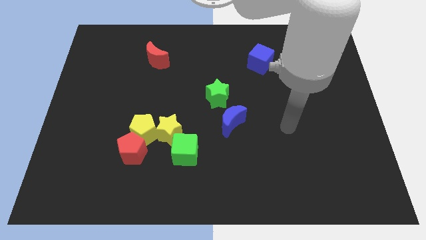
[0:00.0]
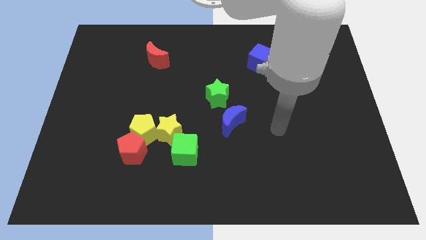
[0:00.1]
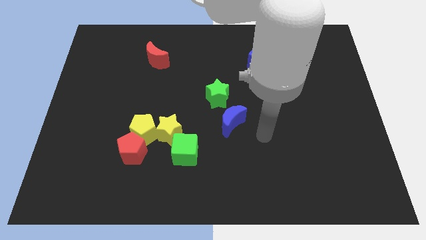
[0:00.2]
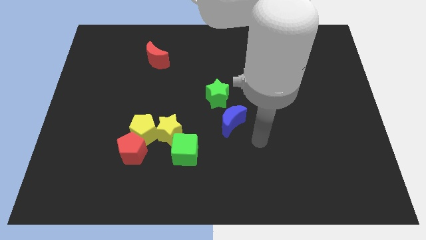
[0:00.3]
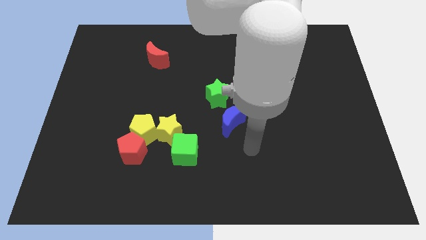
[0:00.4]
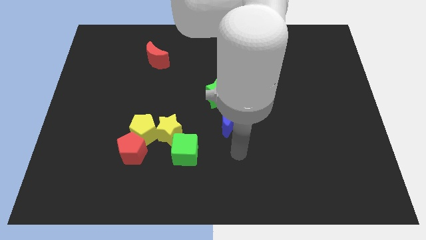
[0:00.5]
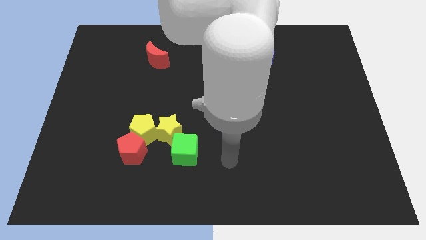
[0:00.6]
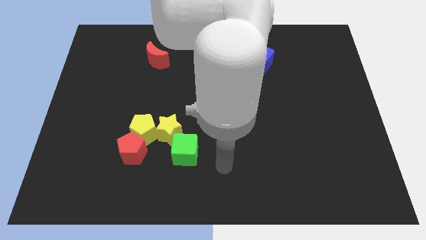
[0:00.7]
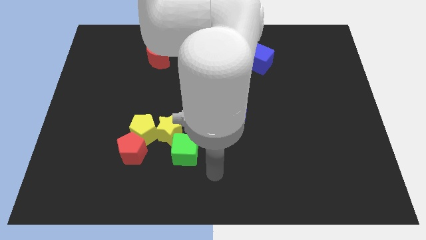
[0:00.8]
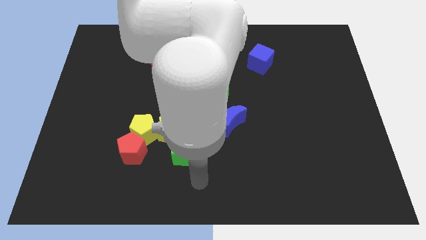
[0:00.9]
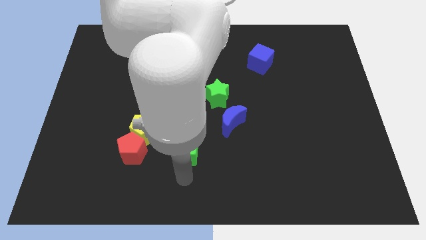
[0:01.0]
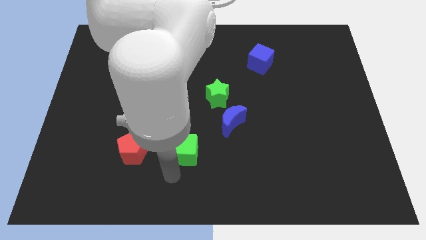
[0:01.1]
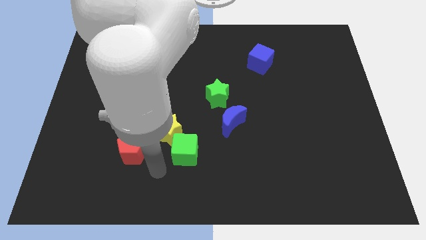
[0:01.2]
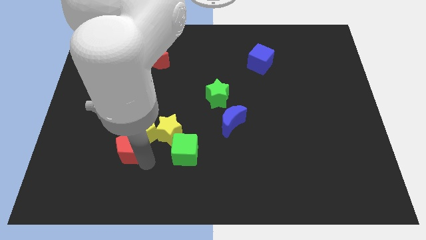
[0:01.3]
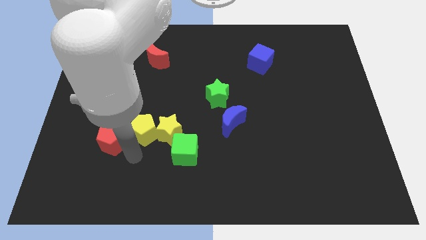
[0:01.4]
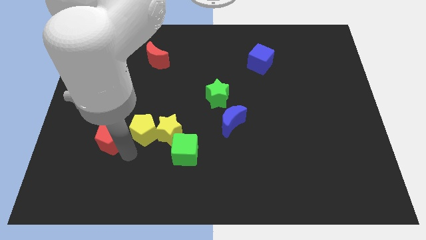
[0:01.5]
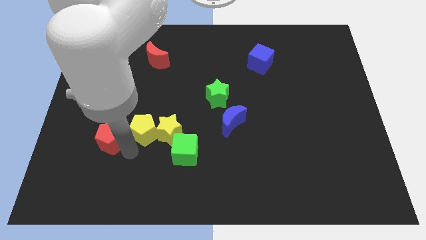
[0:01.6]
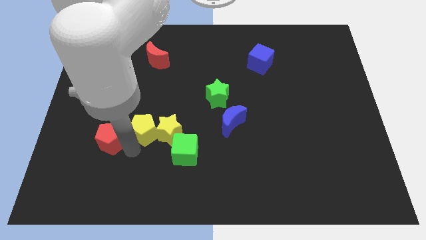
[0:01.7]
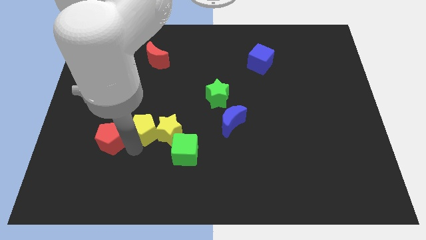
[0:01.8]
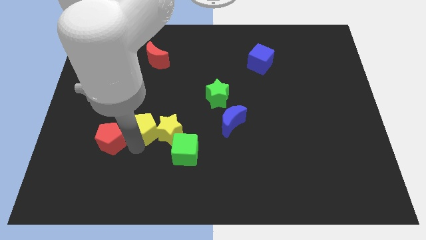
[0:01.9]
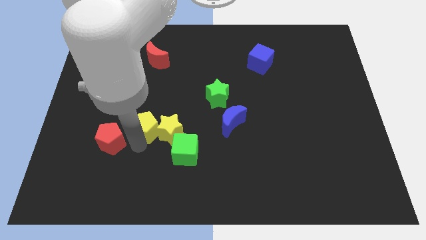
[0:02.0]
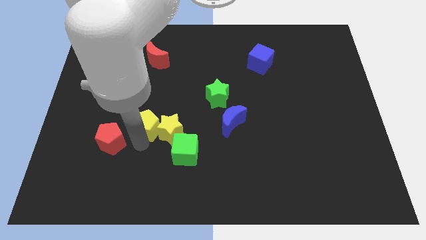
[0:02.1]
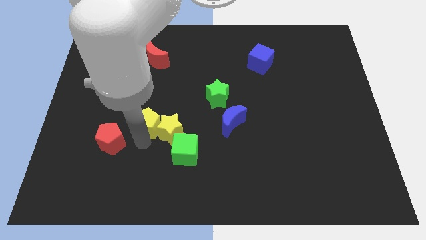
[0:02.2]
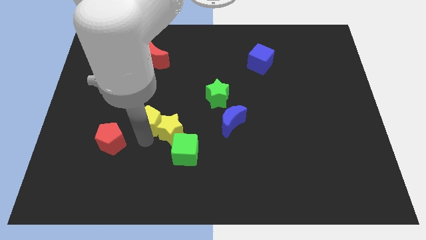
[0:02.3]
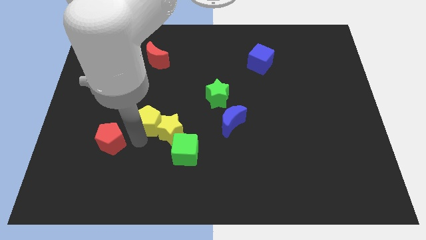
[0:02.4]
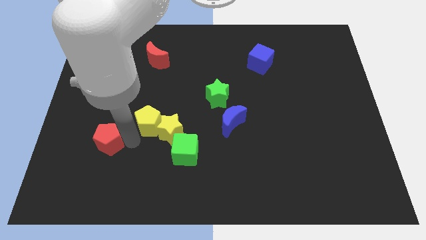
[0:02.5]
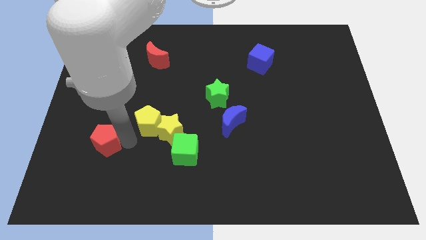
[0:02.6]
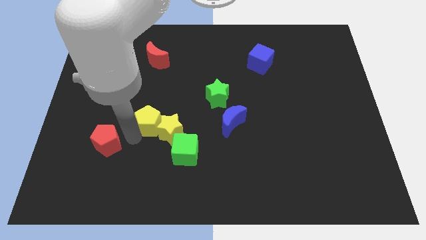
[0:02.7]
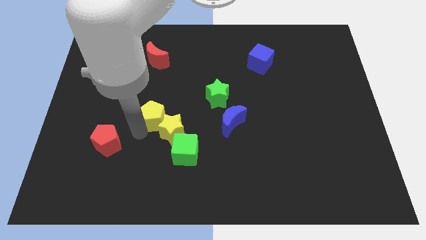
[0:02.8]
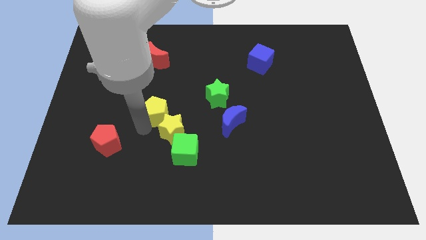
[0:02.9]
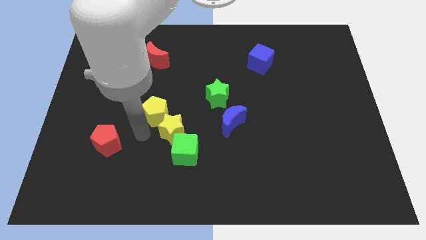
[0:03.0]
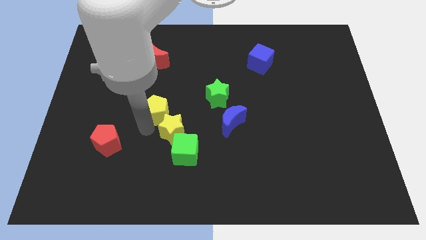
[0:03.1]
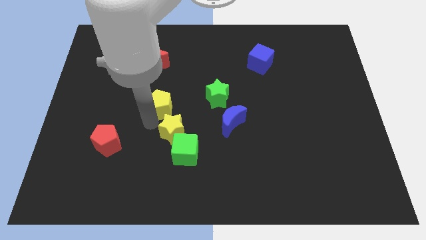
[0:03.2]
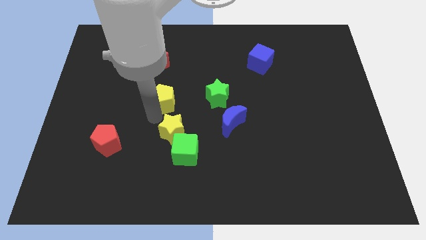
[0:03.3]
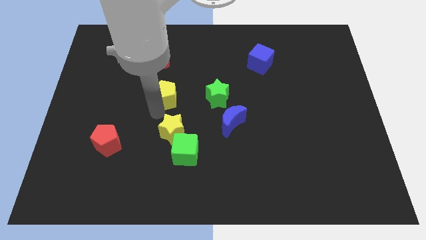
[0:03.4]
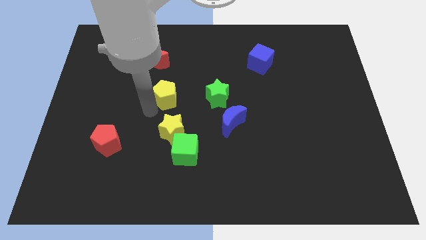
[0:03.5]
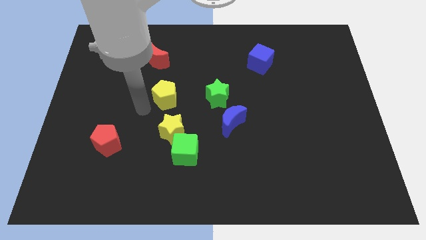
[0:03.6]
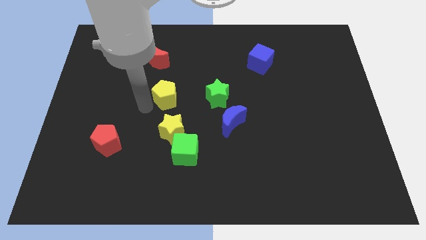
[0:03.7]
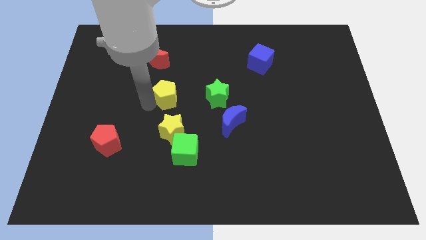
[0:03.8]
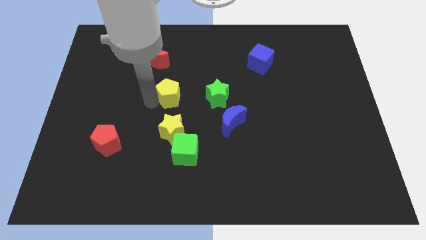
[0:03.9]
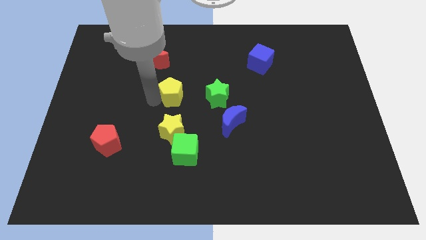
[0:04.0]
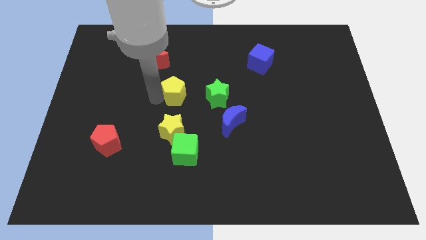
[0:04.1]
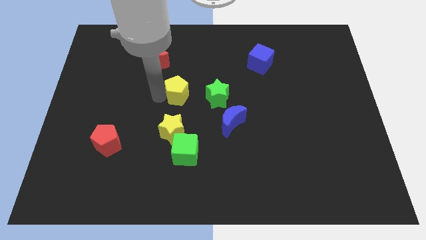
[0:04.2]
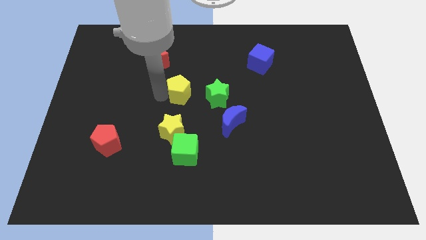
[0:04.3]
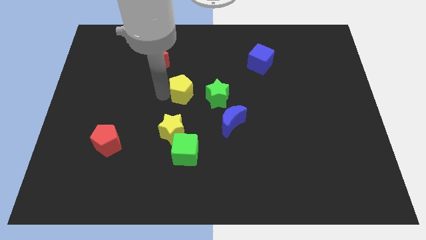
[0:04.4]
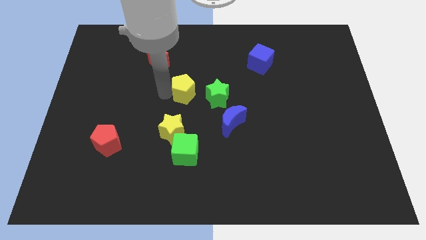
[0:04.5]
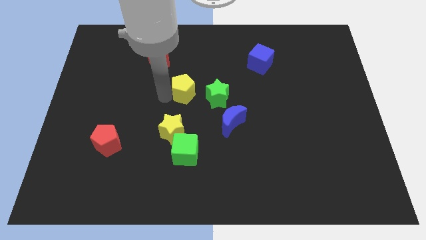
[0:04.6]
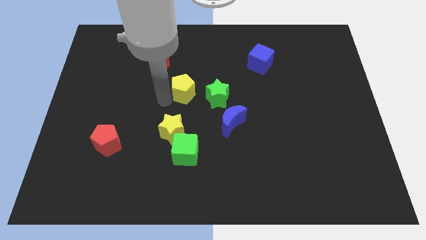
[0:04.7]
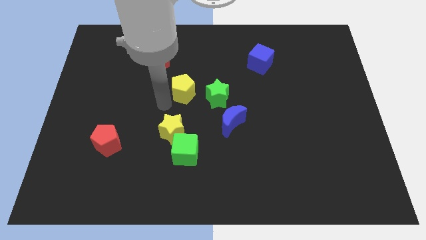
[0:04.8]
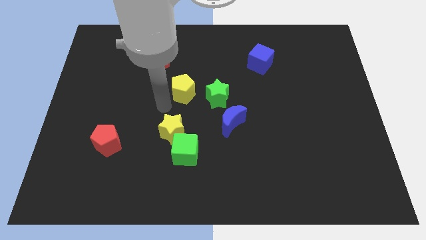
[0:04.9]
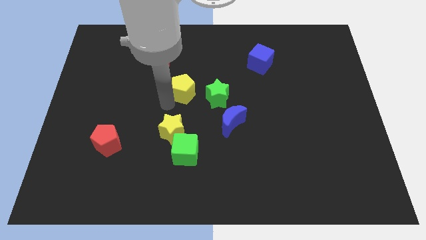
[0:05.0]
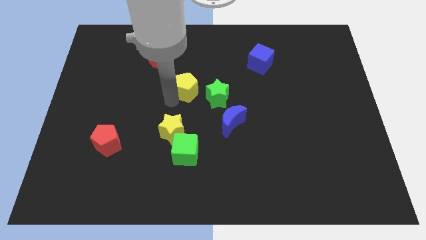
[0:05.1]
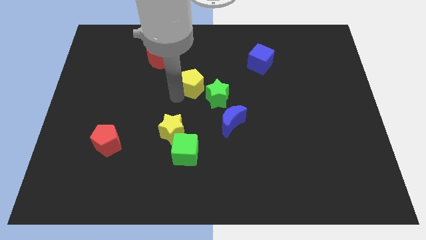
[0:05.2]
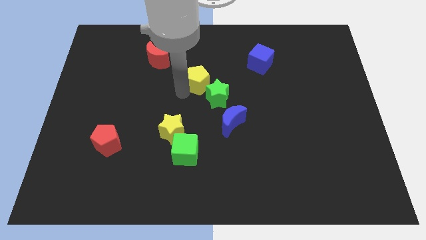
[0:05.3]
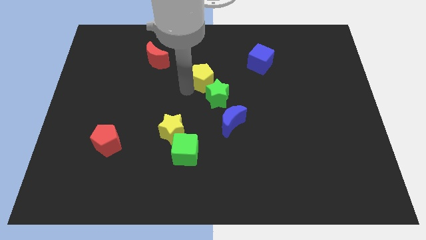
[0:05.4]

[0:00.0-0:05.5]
push the yellow pentagon upwards and right diagonally

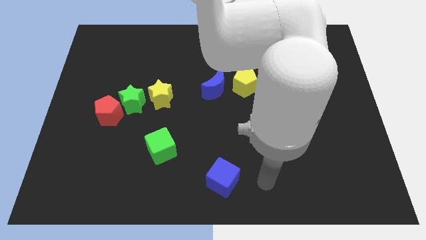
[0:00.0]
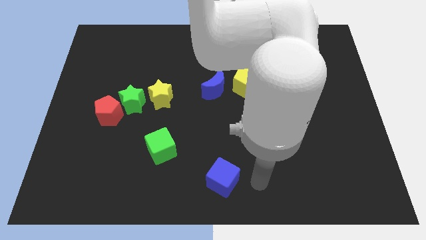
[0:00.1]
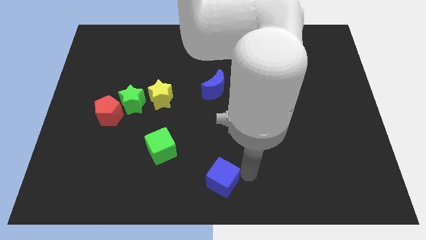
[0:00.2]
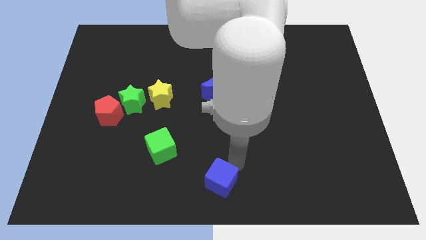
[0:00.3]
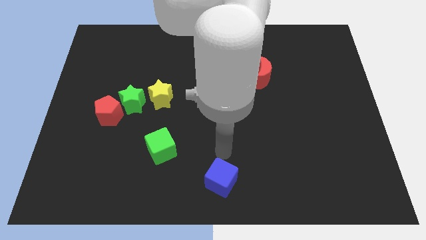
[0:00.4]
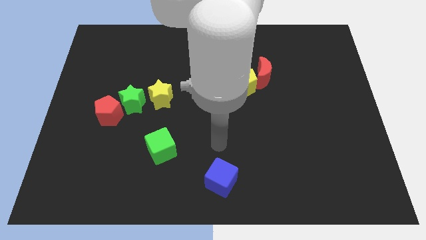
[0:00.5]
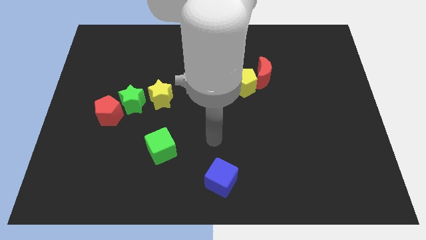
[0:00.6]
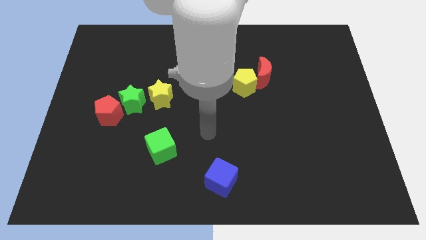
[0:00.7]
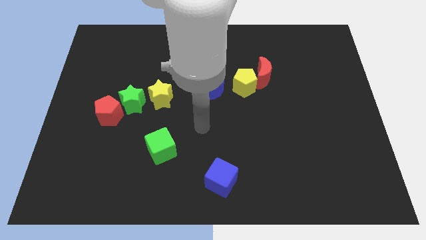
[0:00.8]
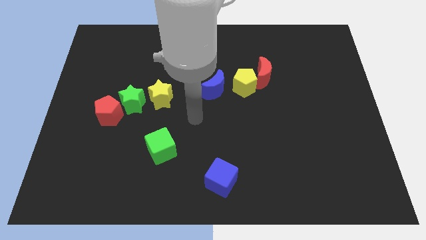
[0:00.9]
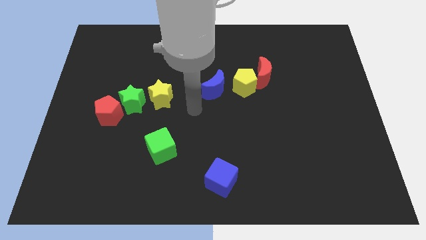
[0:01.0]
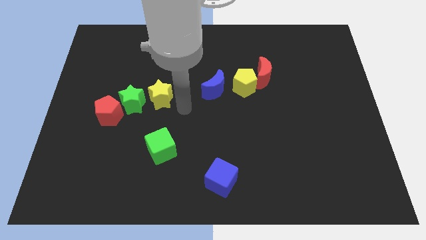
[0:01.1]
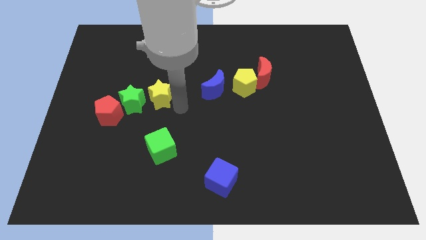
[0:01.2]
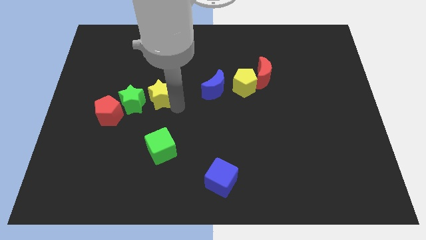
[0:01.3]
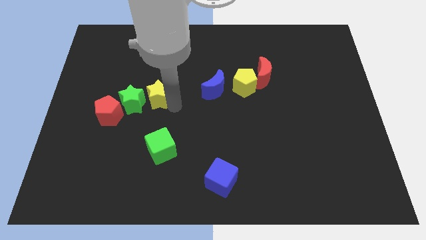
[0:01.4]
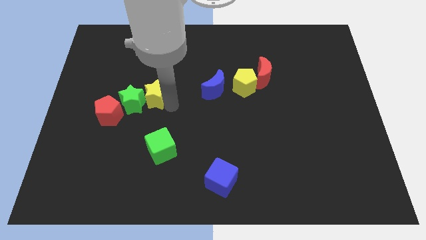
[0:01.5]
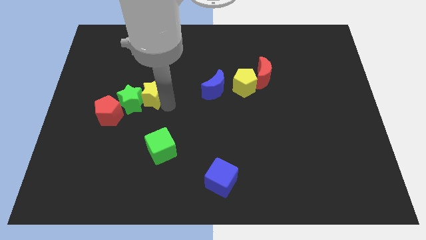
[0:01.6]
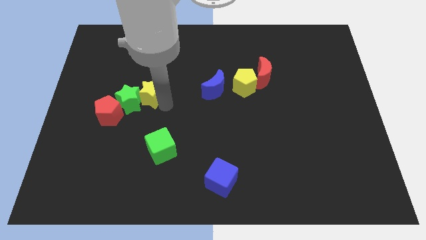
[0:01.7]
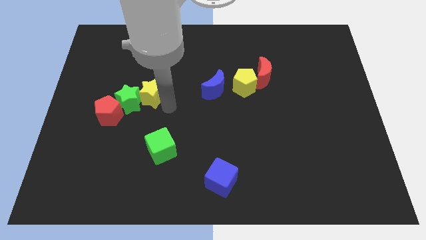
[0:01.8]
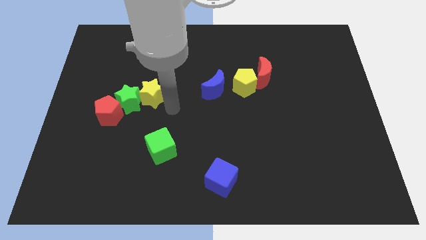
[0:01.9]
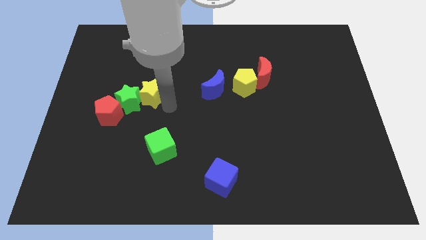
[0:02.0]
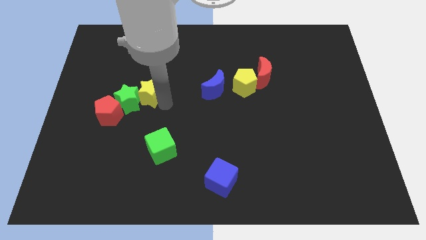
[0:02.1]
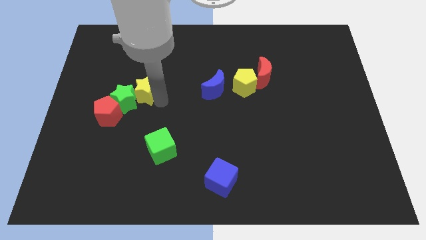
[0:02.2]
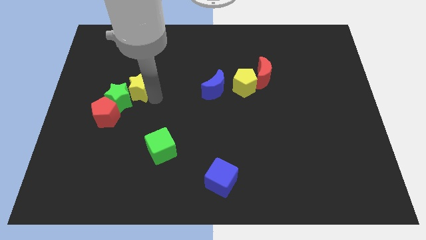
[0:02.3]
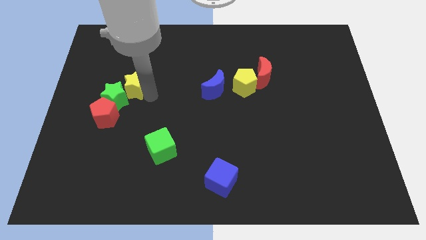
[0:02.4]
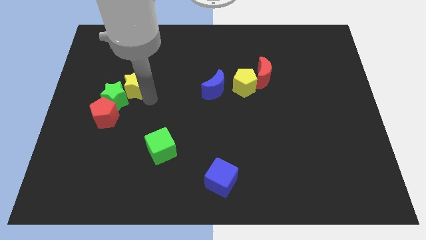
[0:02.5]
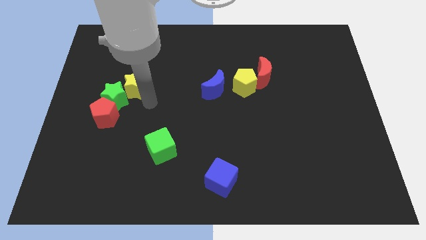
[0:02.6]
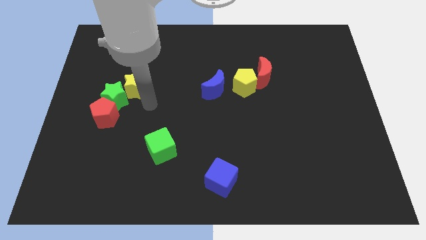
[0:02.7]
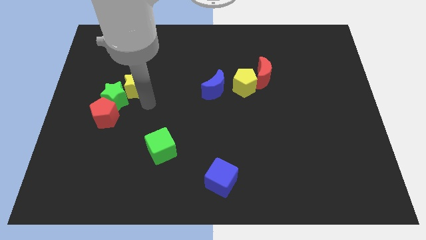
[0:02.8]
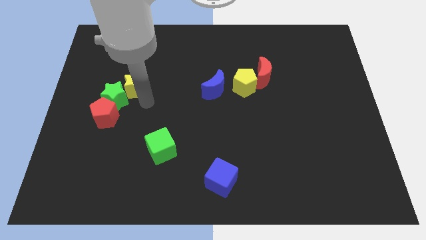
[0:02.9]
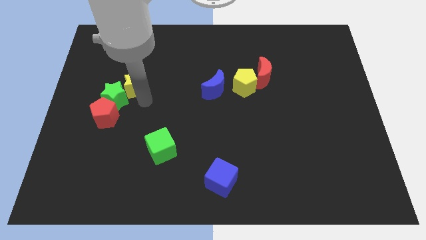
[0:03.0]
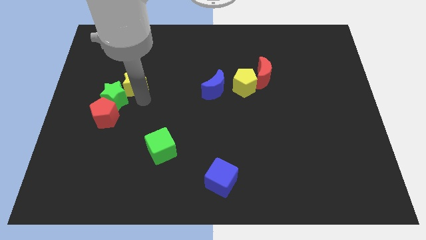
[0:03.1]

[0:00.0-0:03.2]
slide the yellow star diagonally up and to the left a bit
